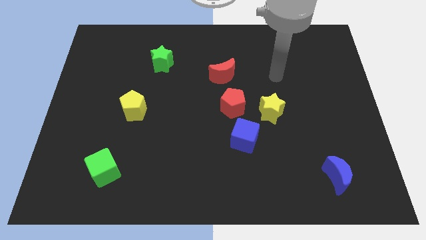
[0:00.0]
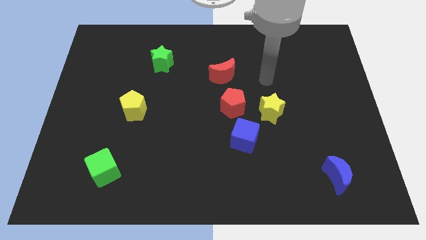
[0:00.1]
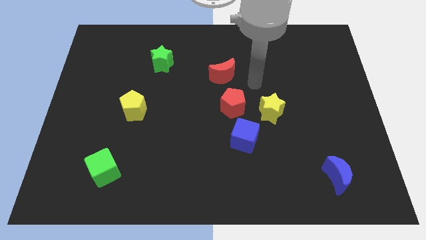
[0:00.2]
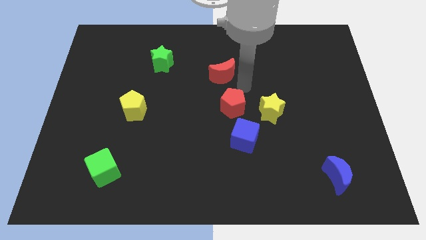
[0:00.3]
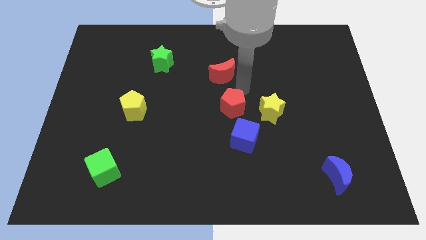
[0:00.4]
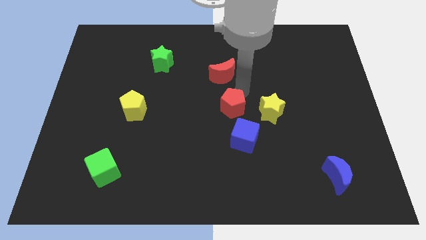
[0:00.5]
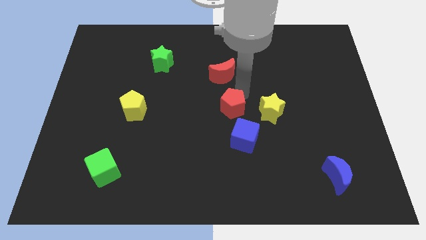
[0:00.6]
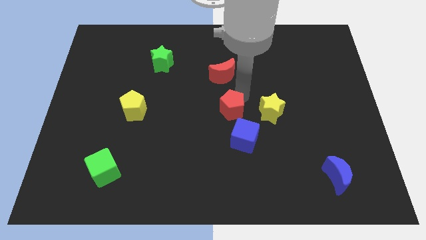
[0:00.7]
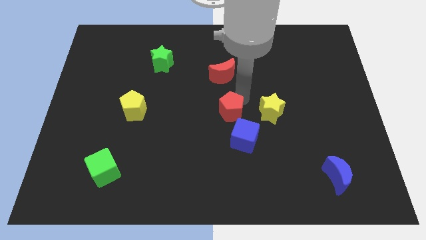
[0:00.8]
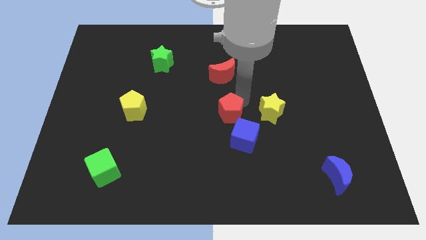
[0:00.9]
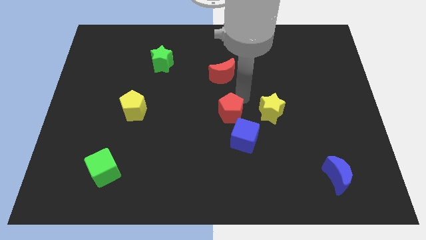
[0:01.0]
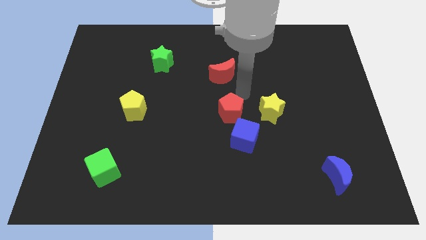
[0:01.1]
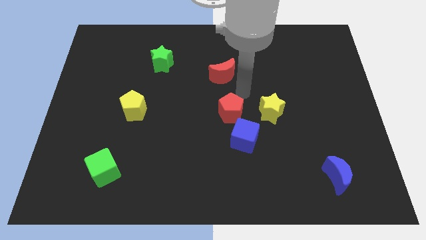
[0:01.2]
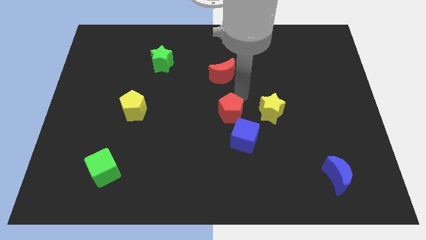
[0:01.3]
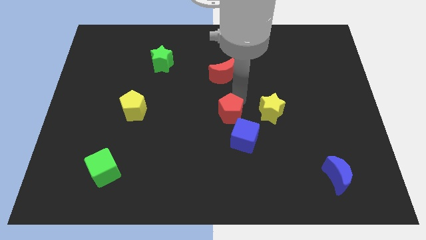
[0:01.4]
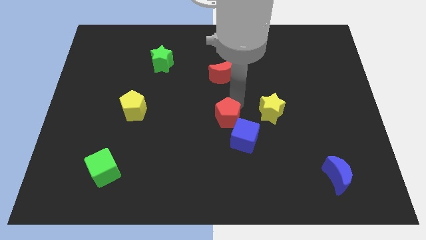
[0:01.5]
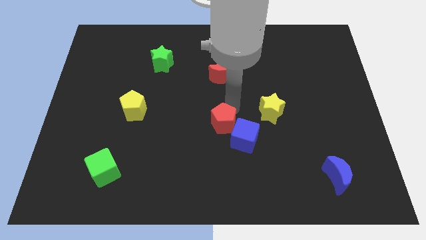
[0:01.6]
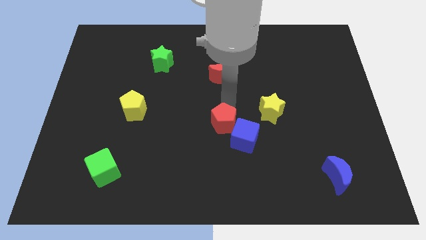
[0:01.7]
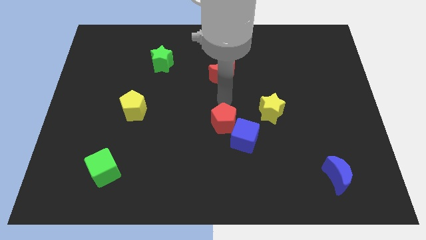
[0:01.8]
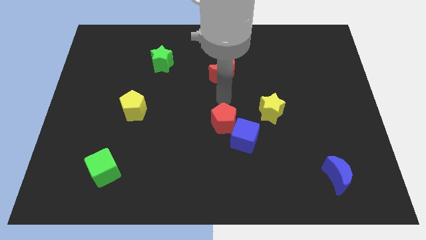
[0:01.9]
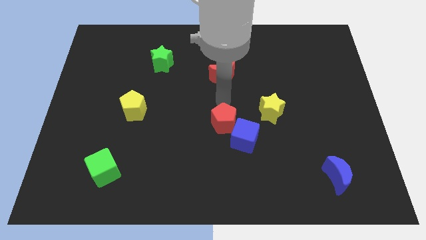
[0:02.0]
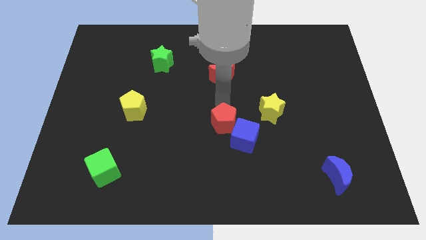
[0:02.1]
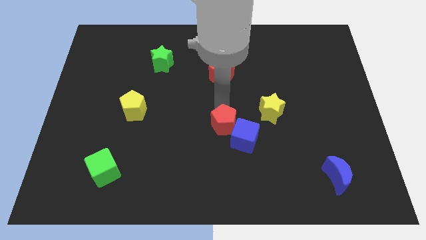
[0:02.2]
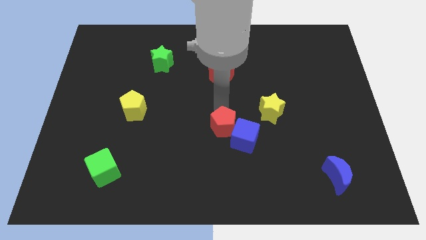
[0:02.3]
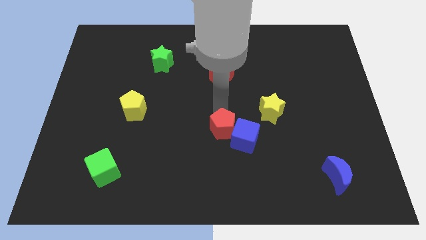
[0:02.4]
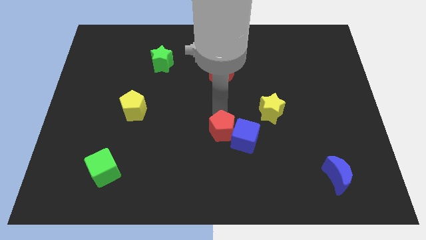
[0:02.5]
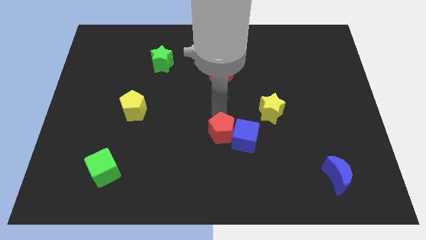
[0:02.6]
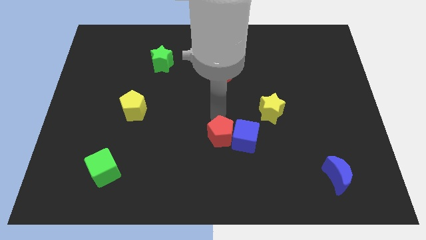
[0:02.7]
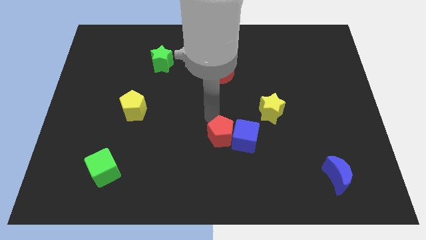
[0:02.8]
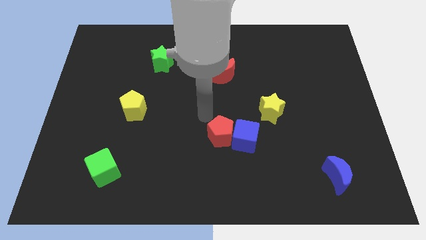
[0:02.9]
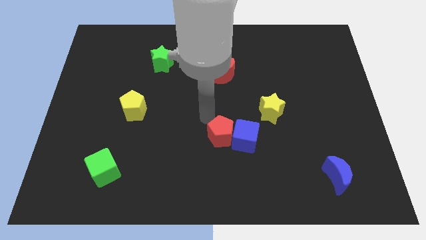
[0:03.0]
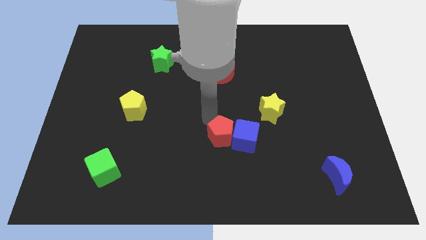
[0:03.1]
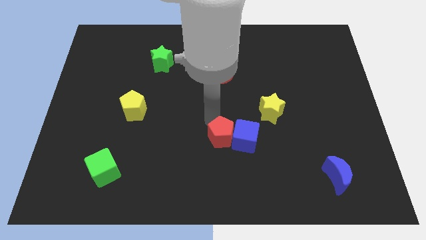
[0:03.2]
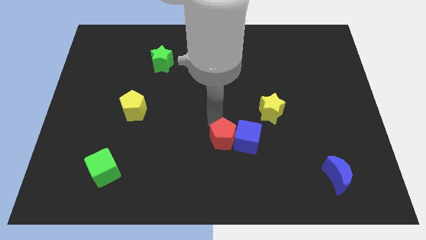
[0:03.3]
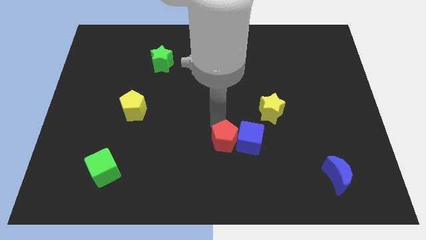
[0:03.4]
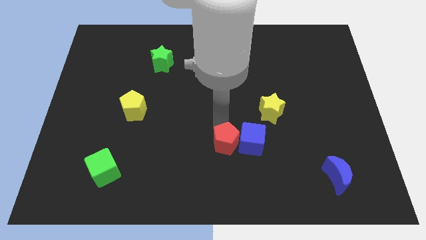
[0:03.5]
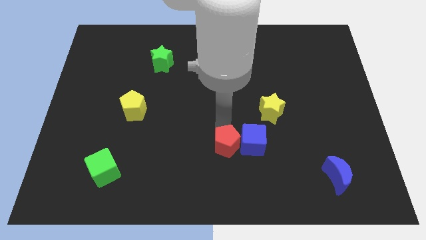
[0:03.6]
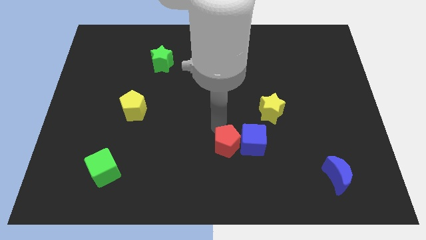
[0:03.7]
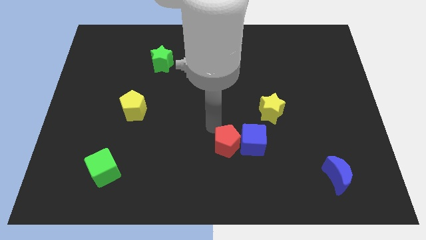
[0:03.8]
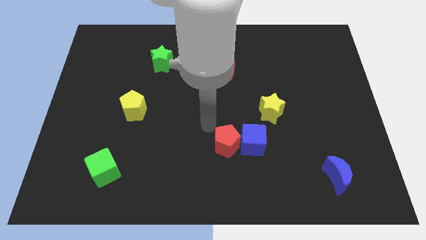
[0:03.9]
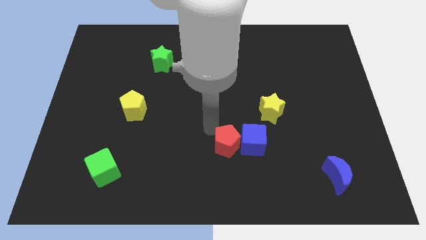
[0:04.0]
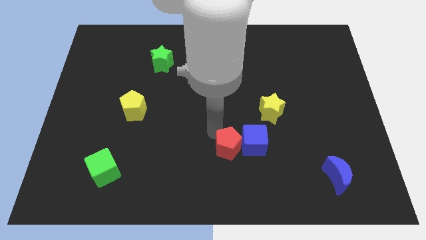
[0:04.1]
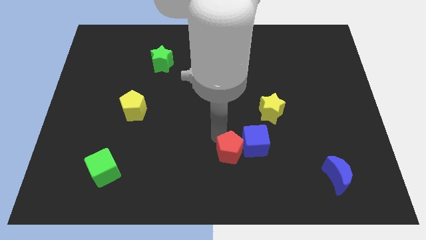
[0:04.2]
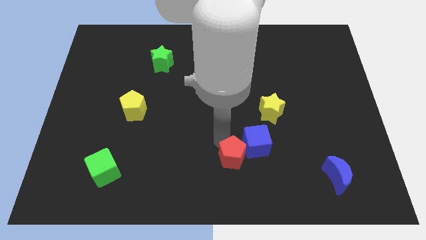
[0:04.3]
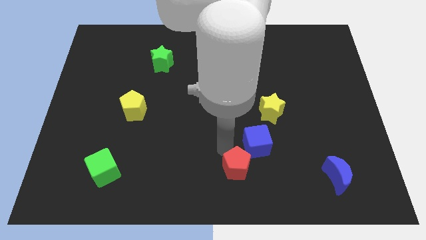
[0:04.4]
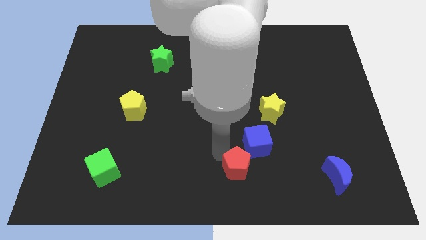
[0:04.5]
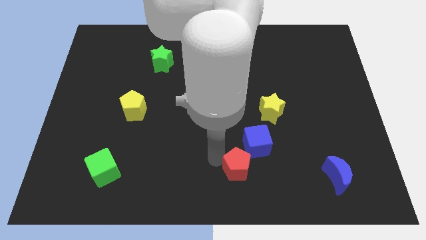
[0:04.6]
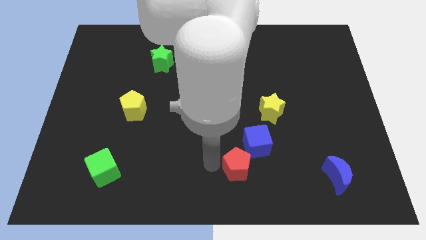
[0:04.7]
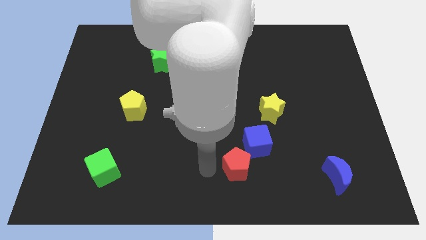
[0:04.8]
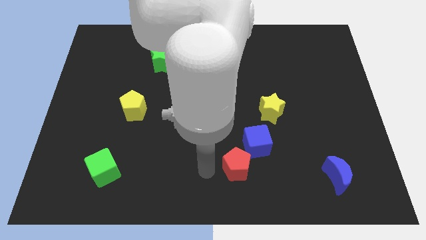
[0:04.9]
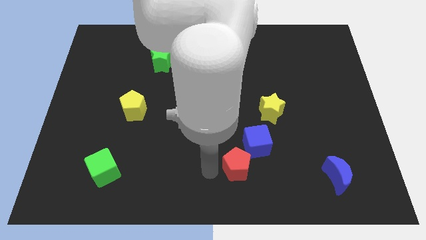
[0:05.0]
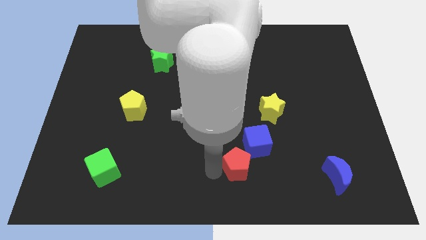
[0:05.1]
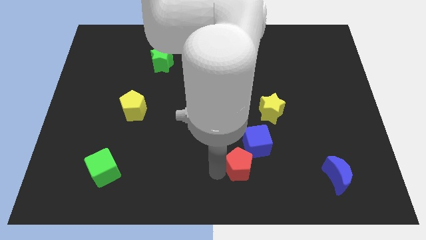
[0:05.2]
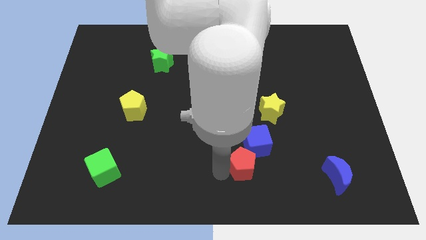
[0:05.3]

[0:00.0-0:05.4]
slide the red pentagon a bit diagonally downwards and to the right

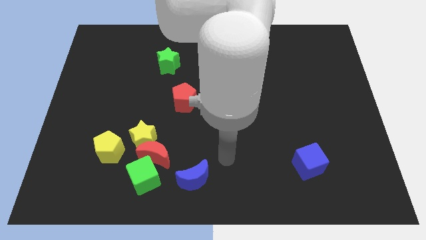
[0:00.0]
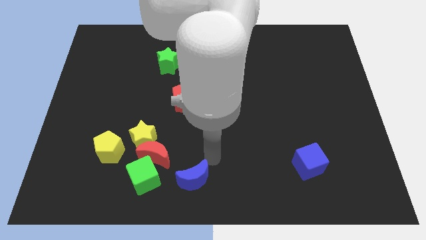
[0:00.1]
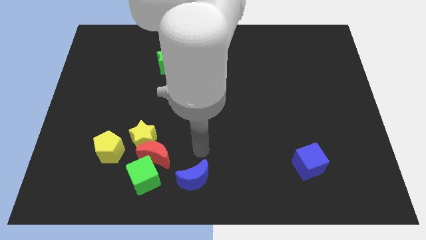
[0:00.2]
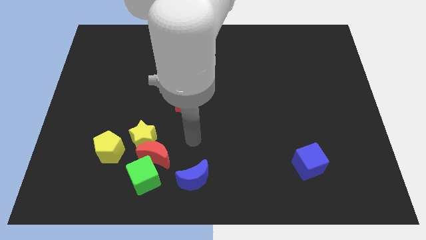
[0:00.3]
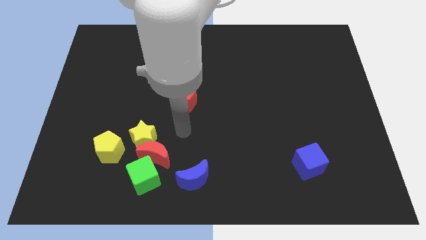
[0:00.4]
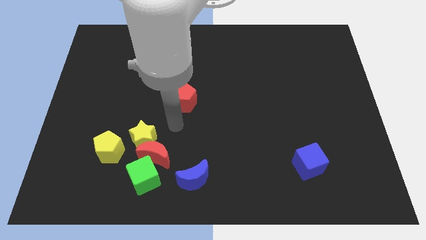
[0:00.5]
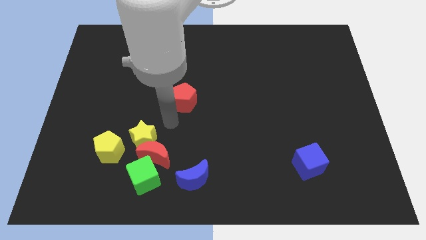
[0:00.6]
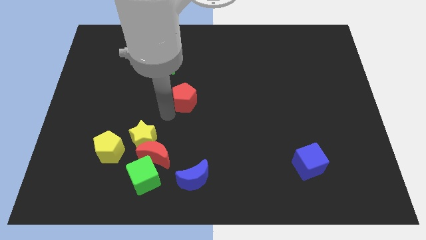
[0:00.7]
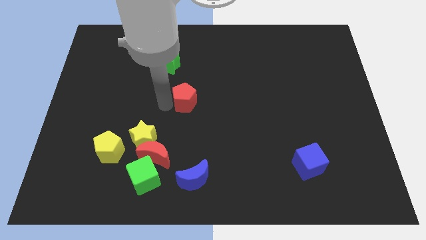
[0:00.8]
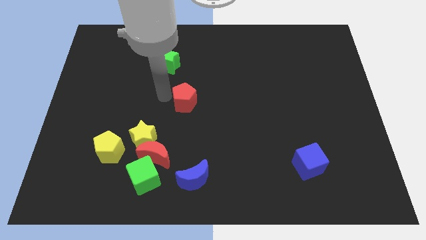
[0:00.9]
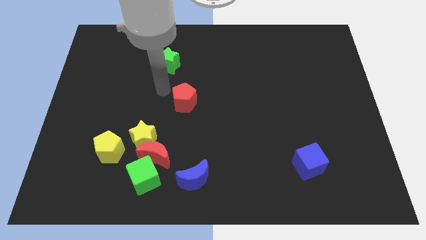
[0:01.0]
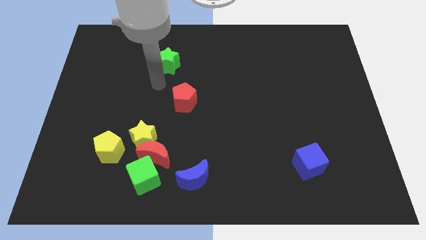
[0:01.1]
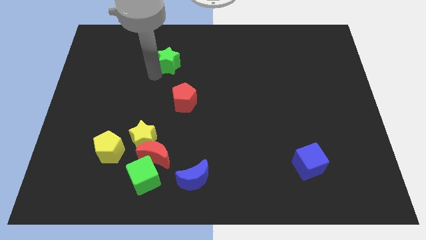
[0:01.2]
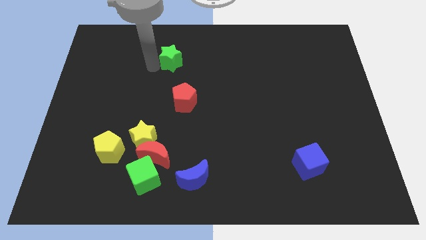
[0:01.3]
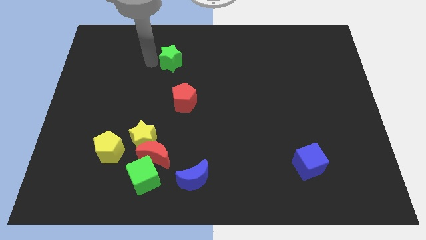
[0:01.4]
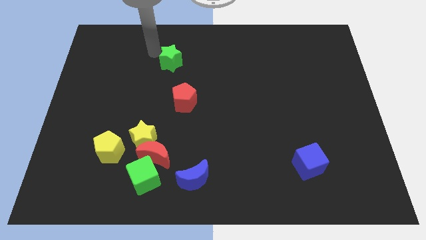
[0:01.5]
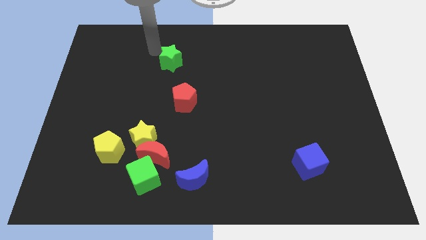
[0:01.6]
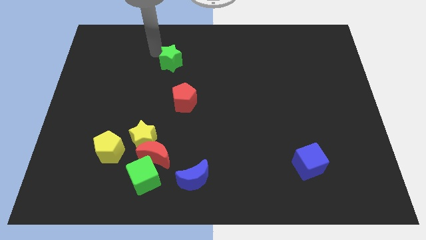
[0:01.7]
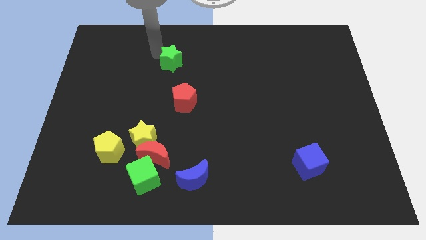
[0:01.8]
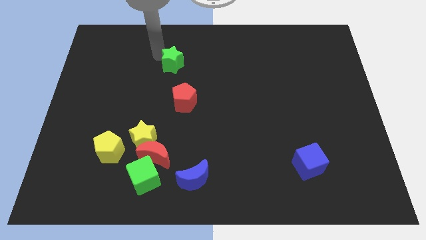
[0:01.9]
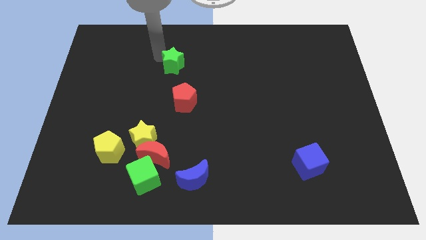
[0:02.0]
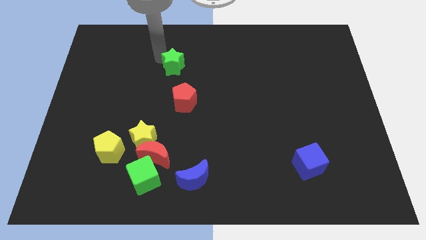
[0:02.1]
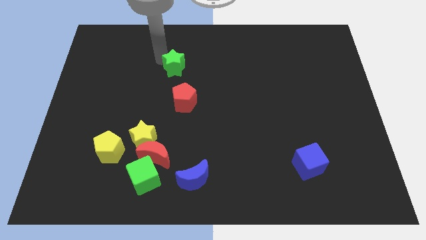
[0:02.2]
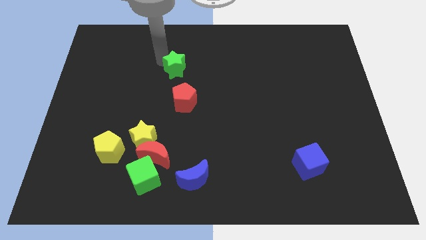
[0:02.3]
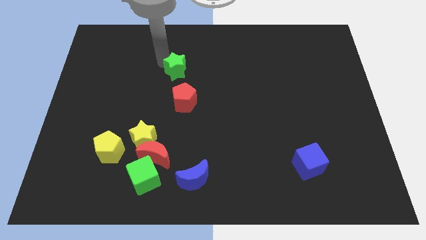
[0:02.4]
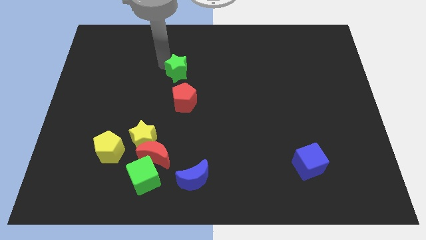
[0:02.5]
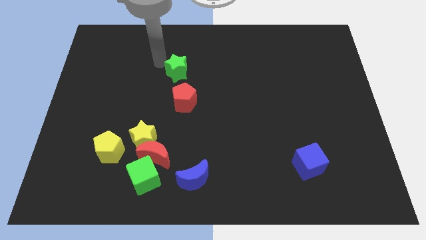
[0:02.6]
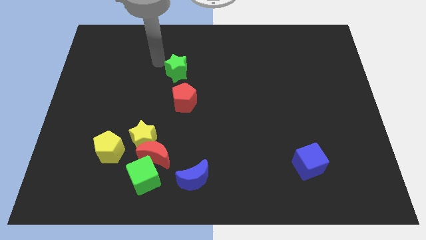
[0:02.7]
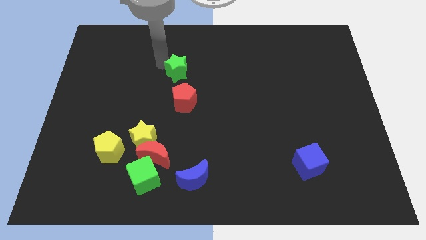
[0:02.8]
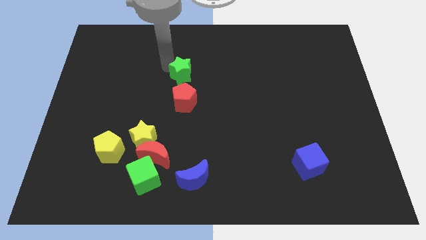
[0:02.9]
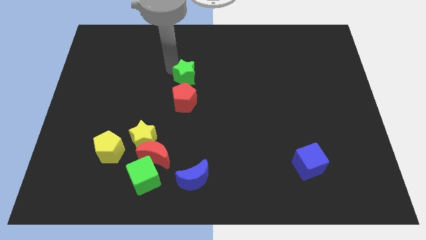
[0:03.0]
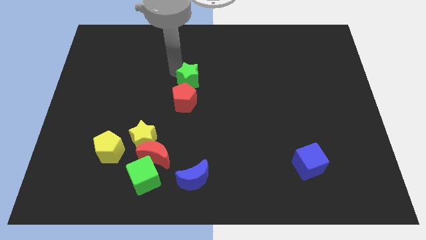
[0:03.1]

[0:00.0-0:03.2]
push the green star down and to the right slightly
